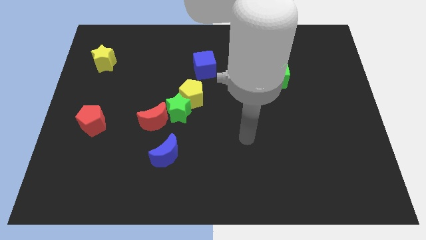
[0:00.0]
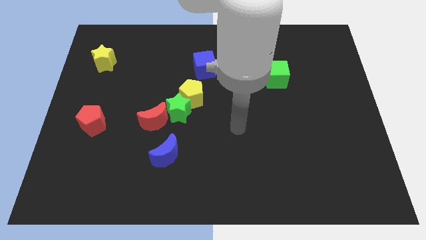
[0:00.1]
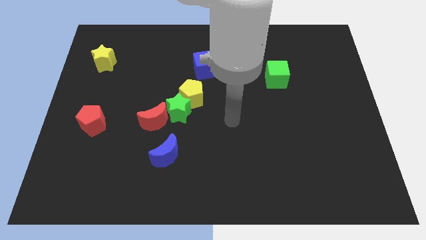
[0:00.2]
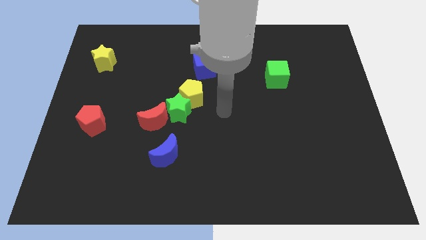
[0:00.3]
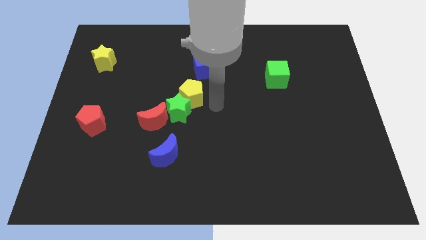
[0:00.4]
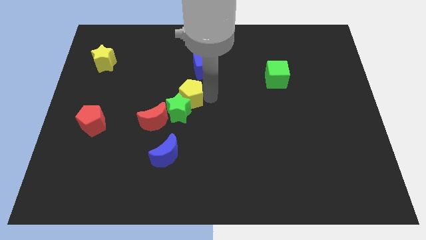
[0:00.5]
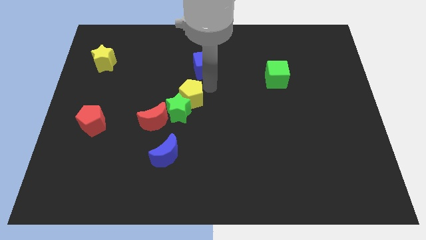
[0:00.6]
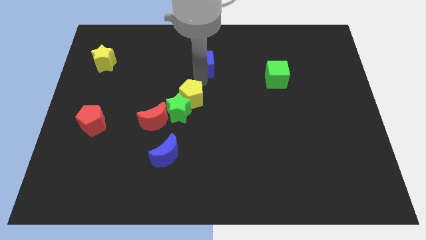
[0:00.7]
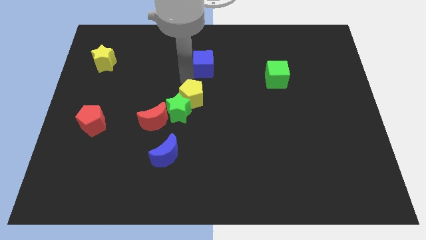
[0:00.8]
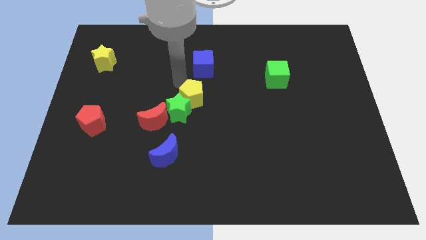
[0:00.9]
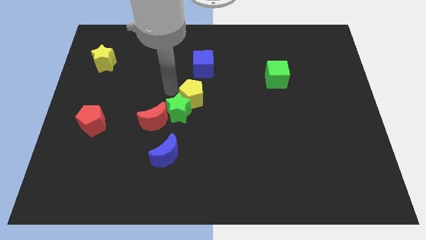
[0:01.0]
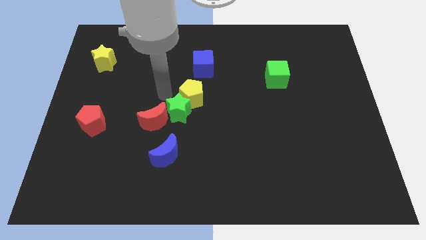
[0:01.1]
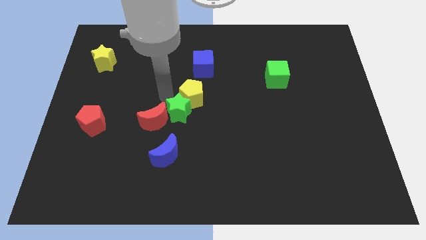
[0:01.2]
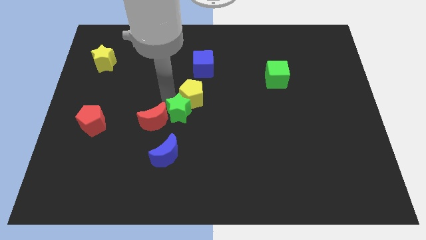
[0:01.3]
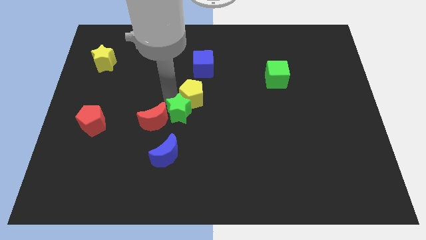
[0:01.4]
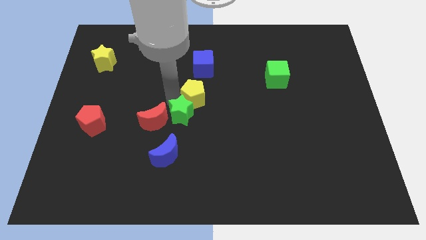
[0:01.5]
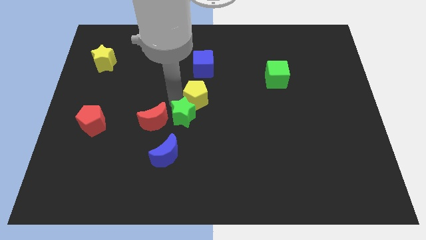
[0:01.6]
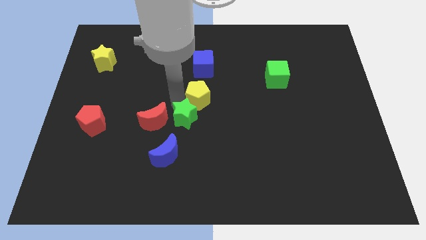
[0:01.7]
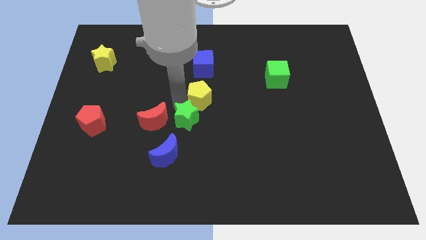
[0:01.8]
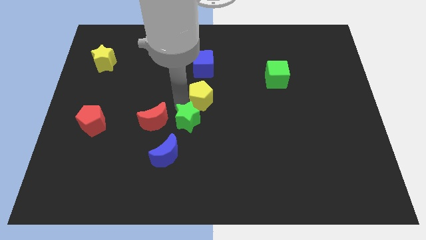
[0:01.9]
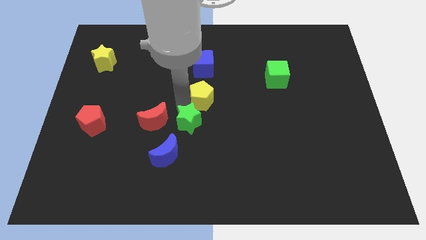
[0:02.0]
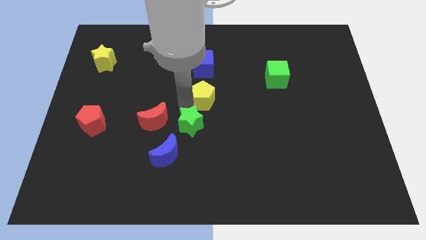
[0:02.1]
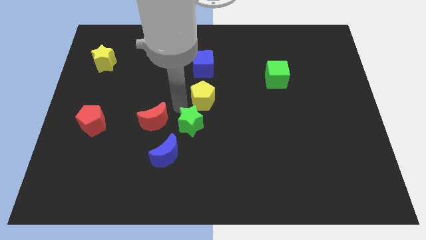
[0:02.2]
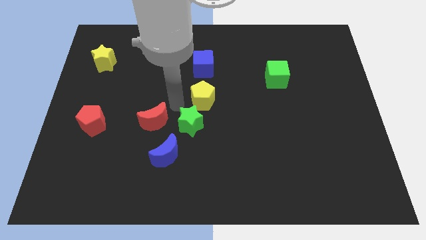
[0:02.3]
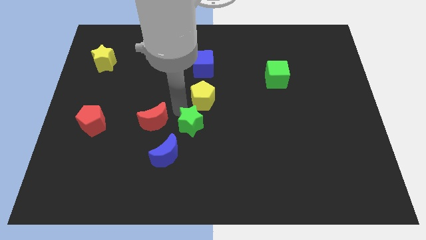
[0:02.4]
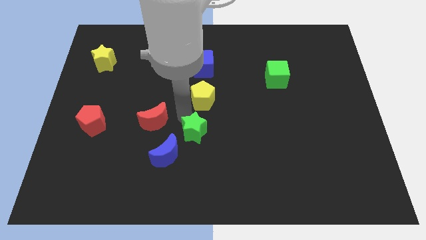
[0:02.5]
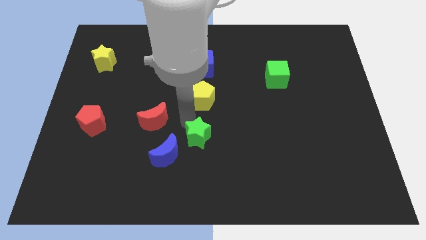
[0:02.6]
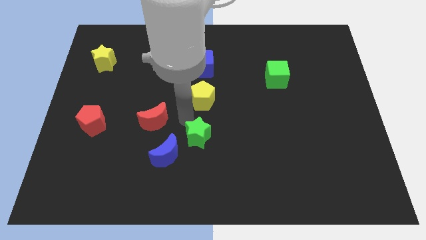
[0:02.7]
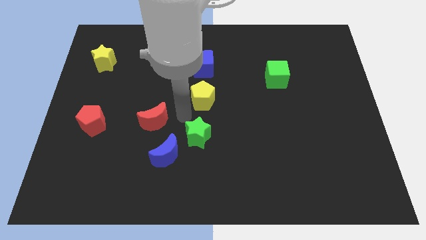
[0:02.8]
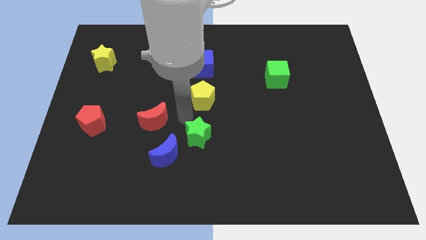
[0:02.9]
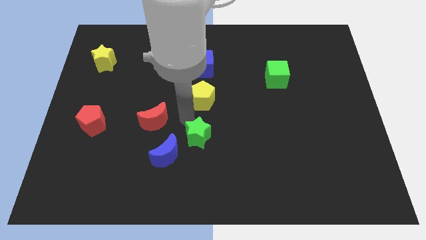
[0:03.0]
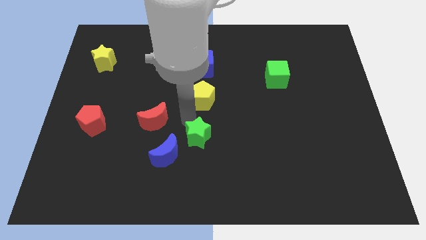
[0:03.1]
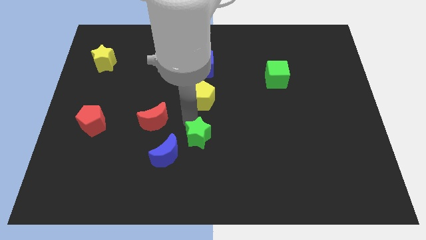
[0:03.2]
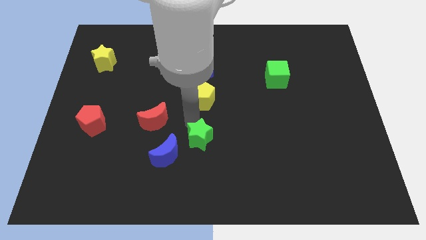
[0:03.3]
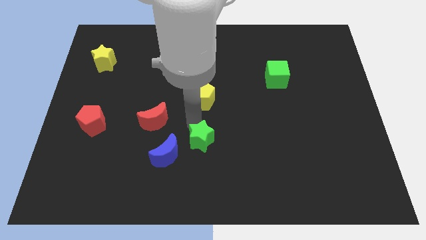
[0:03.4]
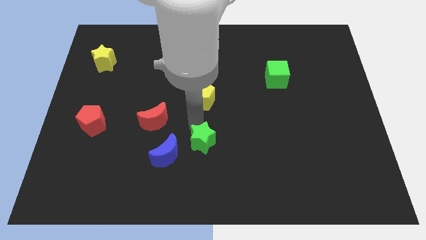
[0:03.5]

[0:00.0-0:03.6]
move the green star away from the red moon and yellow pentagon

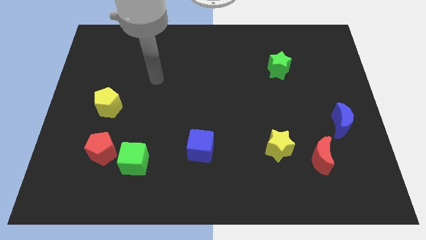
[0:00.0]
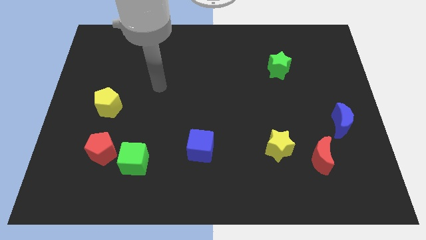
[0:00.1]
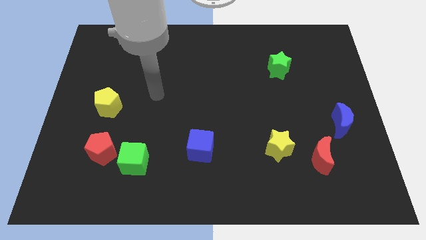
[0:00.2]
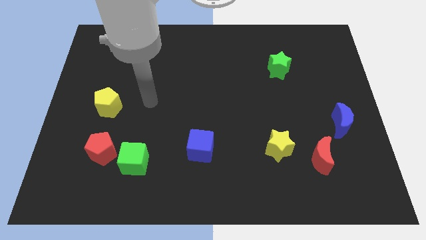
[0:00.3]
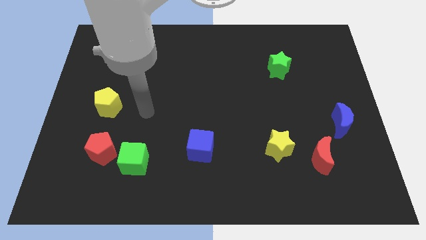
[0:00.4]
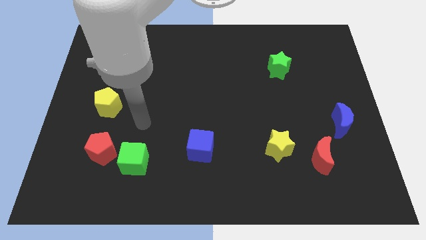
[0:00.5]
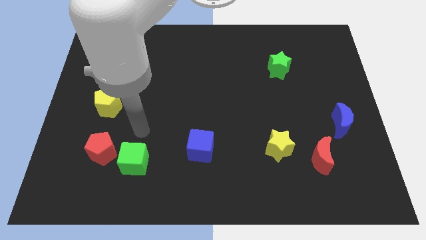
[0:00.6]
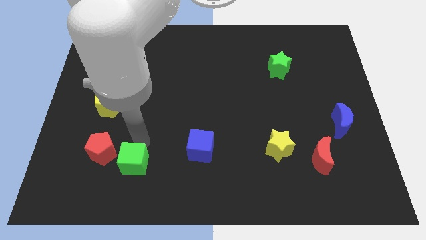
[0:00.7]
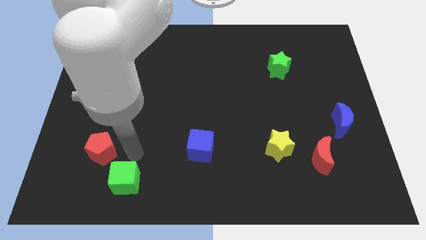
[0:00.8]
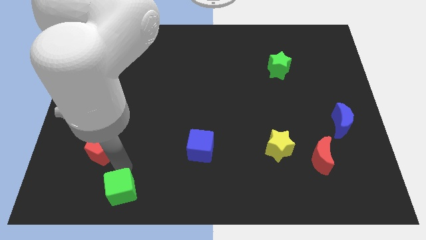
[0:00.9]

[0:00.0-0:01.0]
separate the red pentagon from the green cube

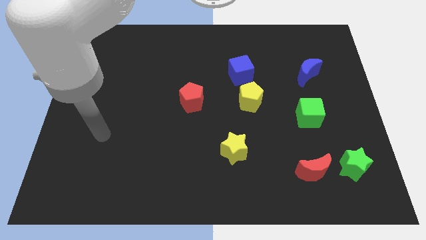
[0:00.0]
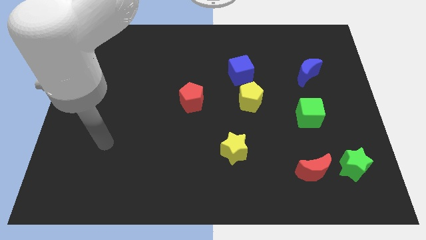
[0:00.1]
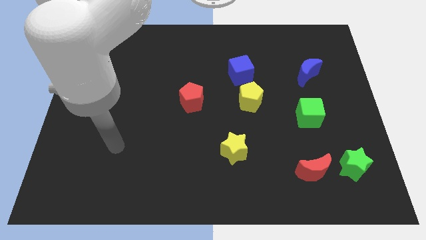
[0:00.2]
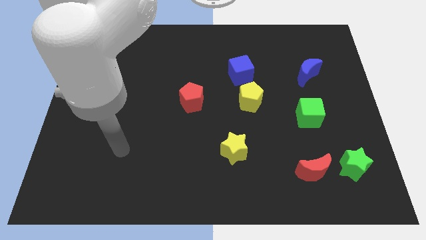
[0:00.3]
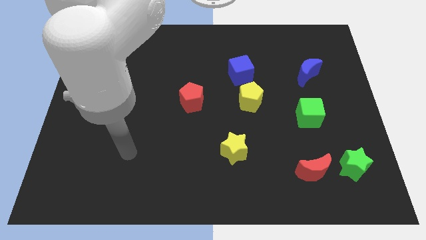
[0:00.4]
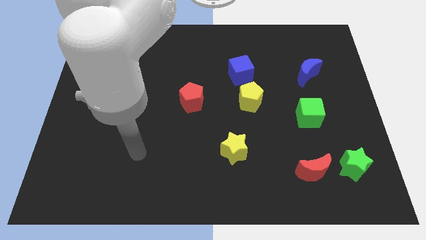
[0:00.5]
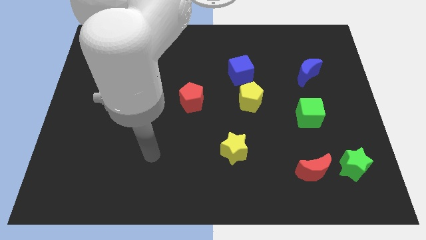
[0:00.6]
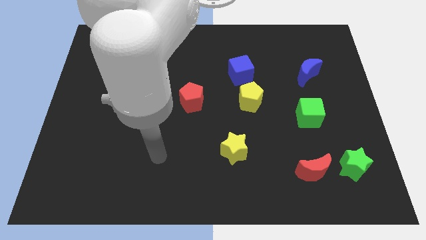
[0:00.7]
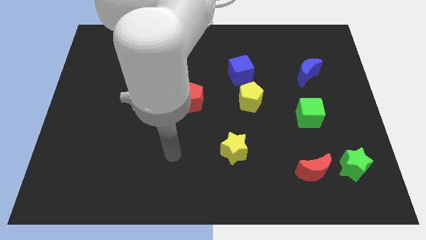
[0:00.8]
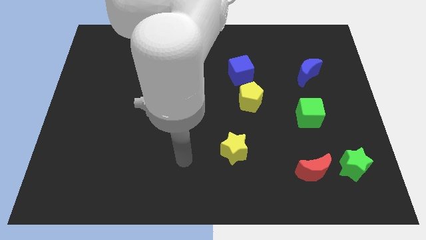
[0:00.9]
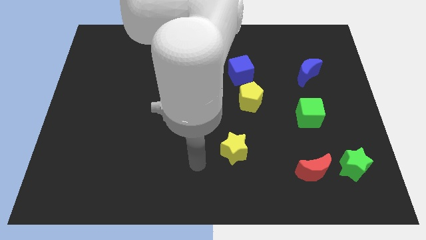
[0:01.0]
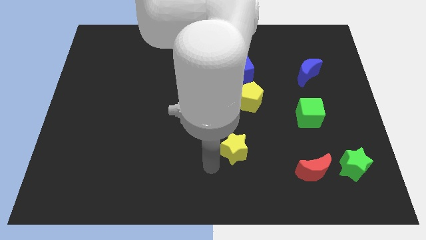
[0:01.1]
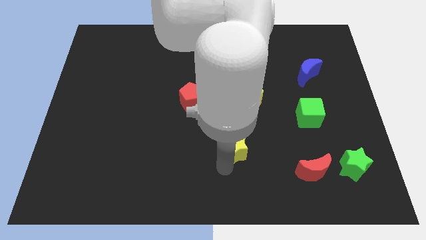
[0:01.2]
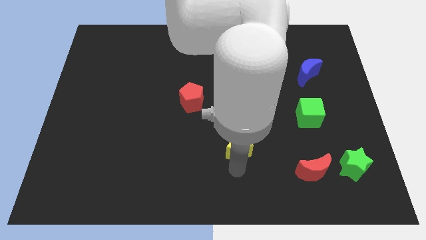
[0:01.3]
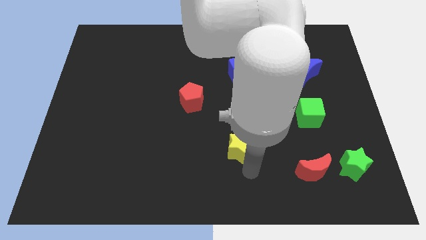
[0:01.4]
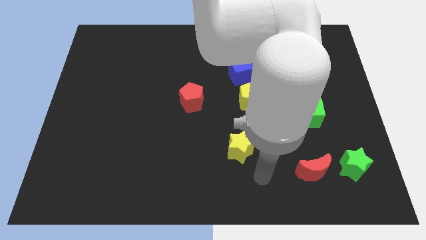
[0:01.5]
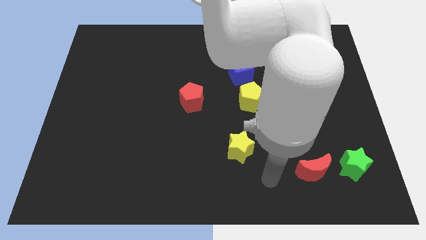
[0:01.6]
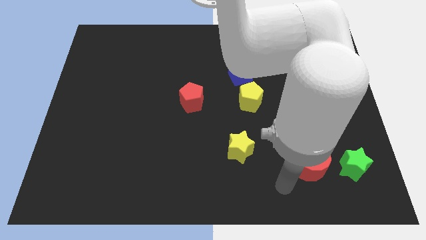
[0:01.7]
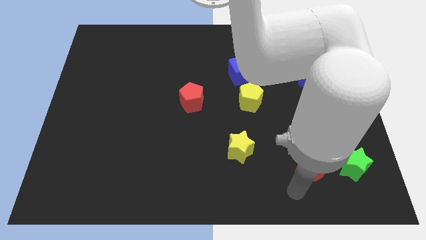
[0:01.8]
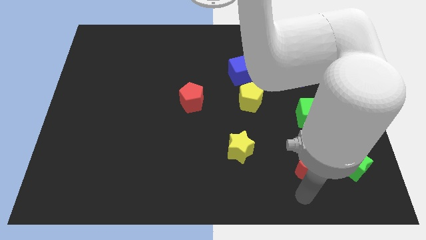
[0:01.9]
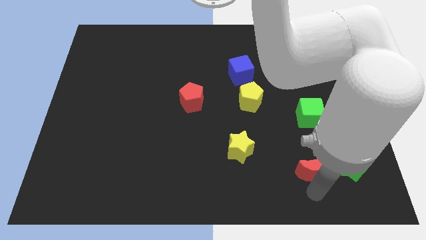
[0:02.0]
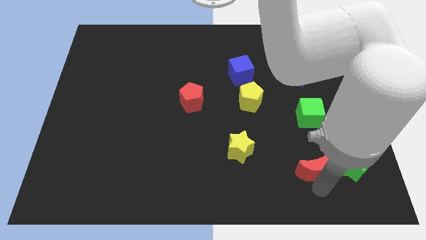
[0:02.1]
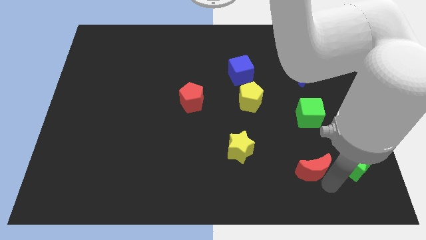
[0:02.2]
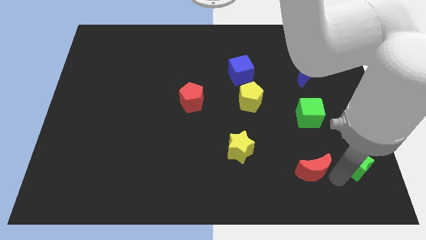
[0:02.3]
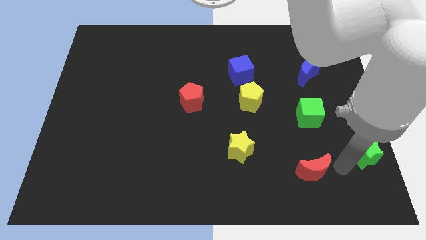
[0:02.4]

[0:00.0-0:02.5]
pull the red moon apart from the green star

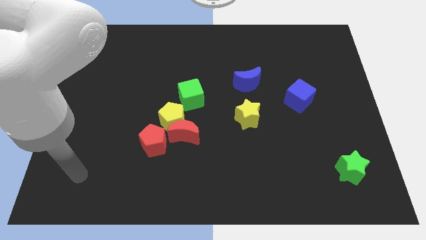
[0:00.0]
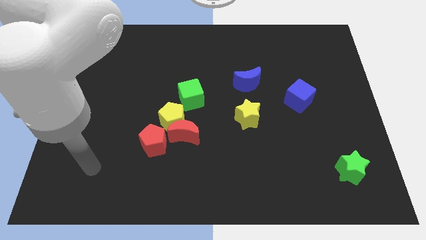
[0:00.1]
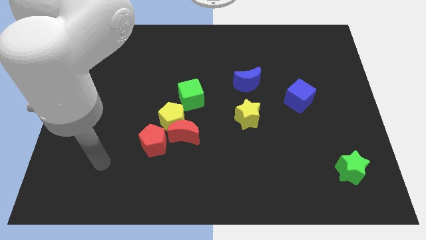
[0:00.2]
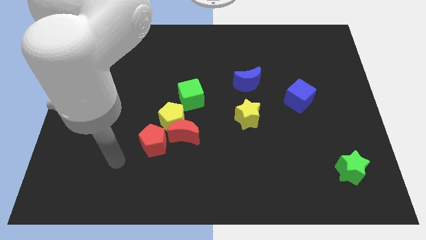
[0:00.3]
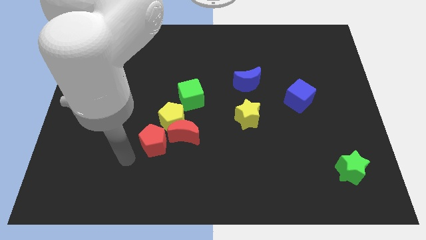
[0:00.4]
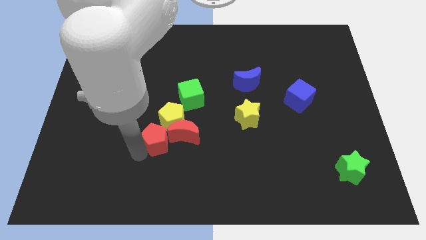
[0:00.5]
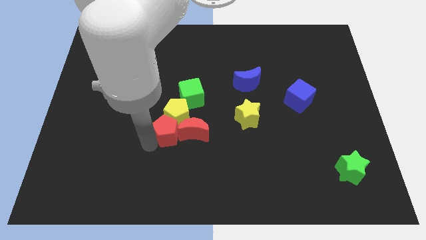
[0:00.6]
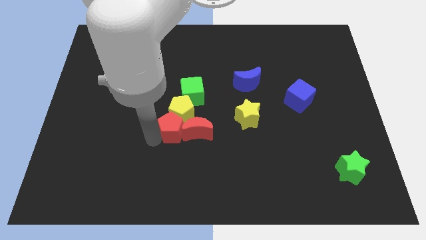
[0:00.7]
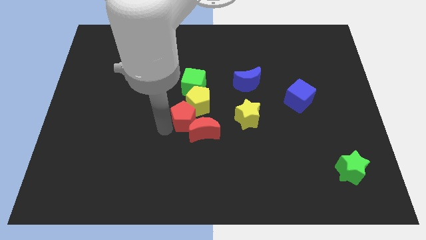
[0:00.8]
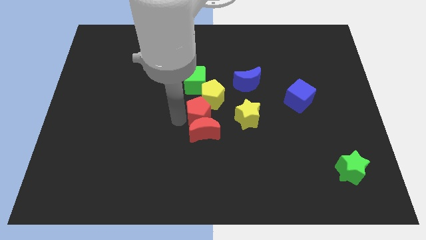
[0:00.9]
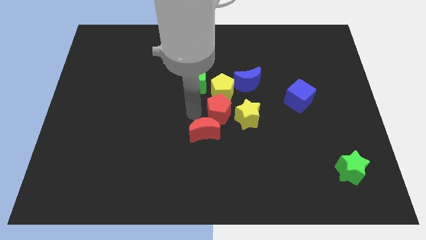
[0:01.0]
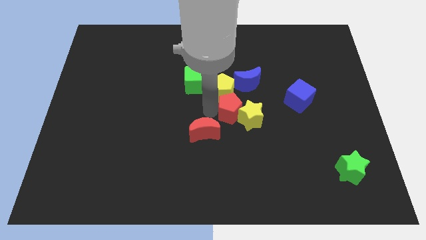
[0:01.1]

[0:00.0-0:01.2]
pull the red moon apart from the yellow pentagon and red pentagon

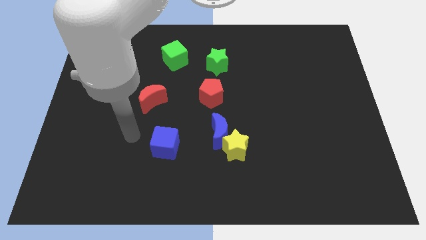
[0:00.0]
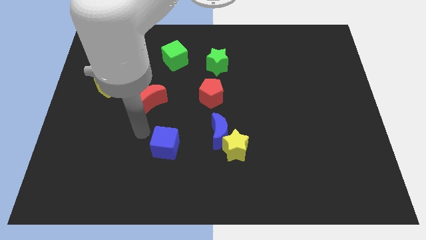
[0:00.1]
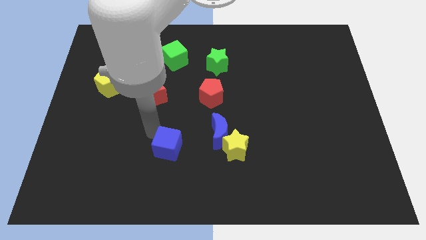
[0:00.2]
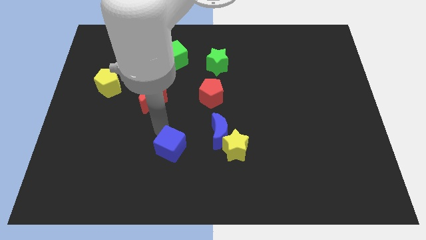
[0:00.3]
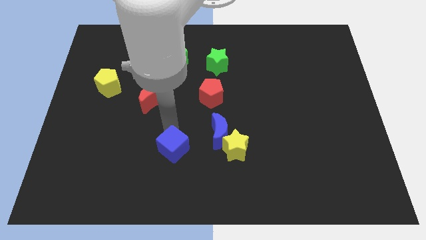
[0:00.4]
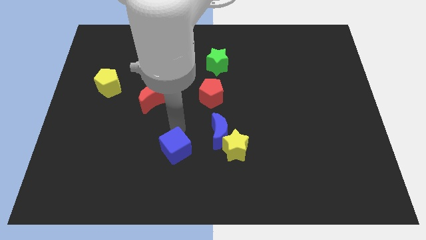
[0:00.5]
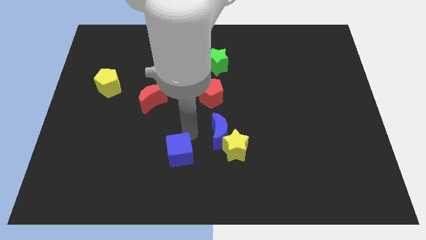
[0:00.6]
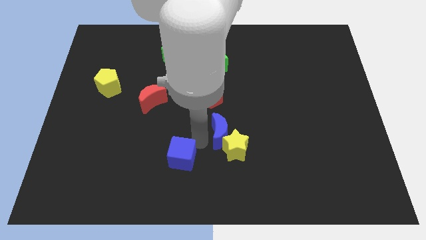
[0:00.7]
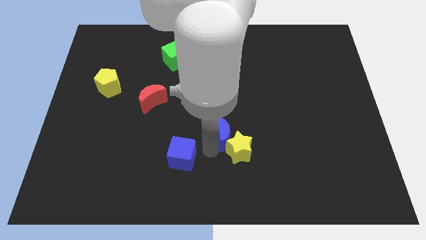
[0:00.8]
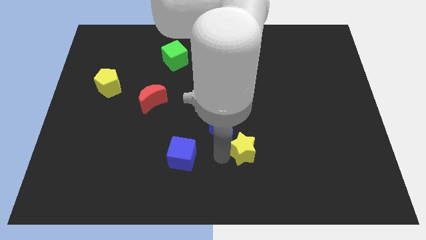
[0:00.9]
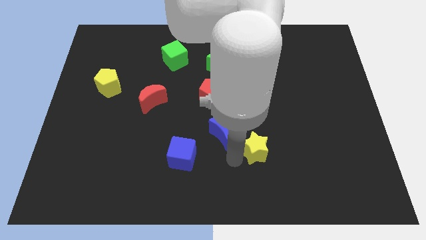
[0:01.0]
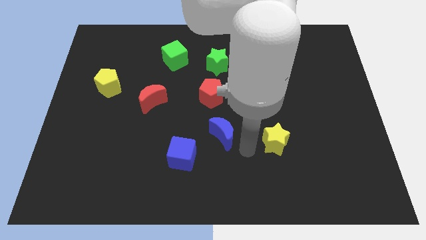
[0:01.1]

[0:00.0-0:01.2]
separate the blue moon from the yellow star
